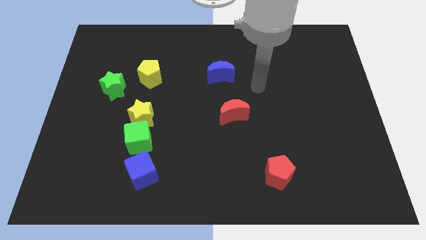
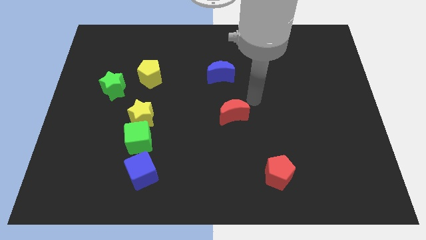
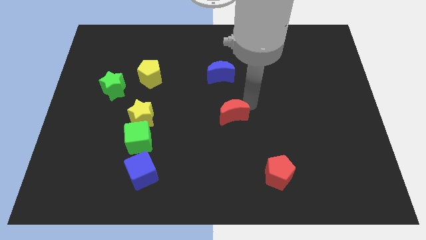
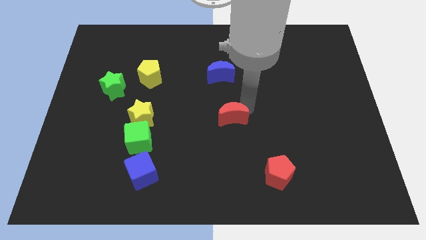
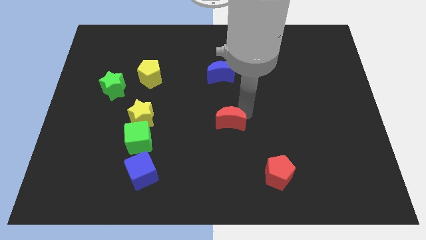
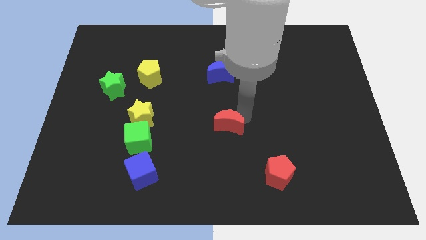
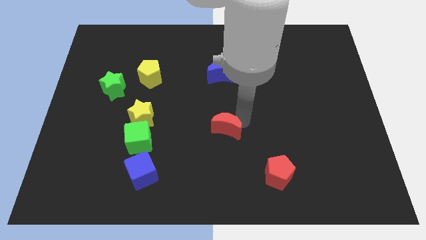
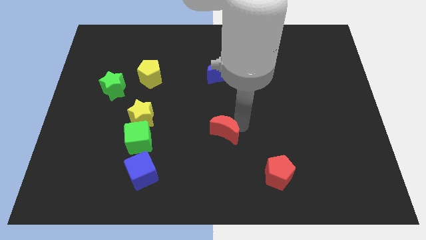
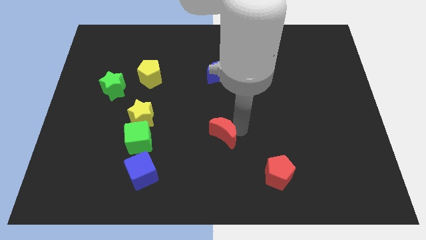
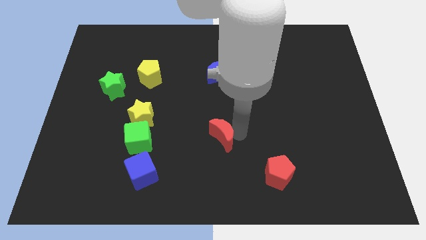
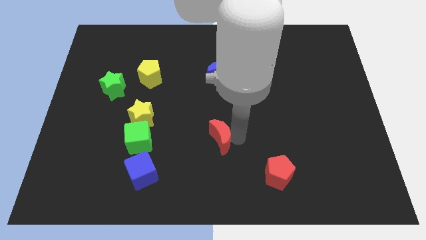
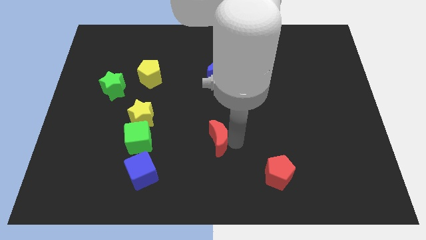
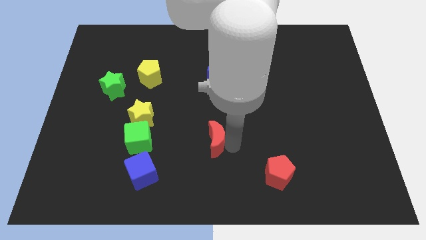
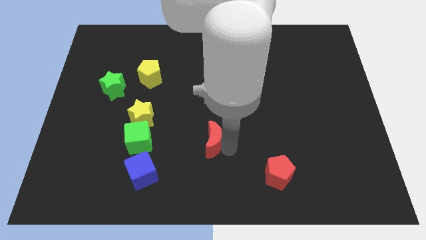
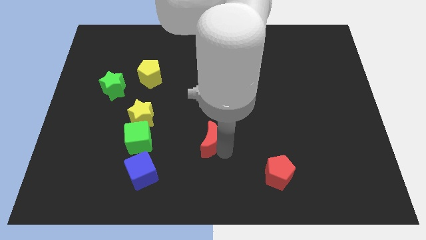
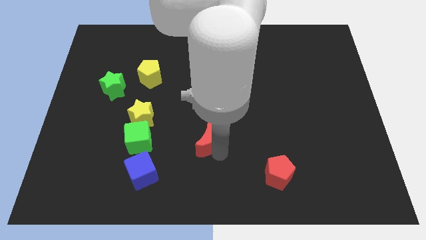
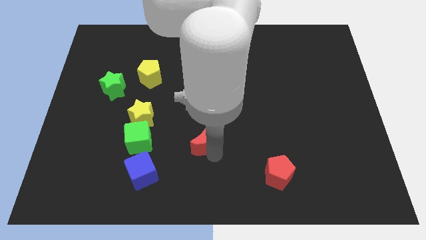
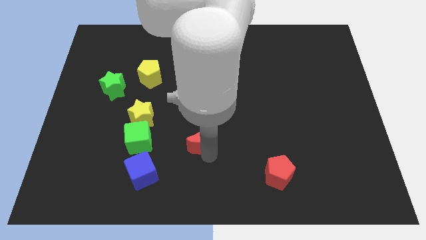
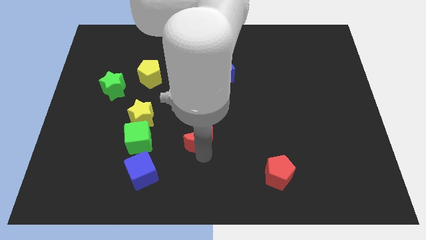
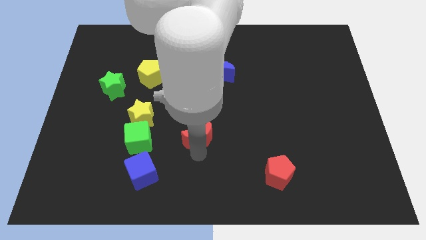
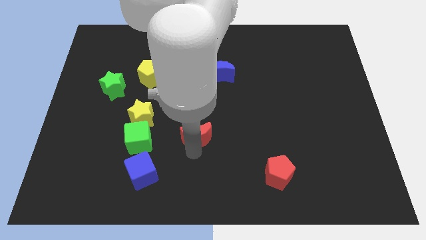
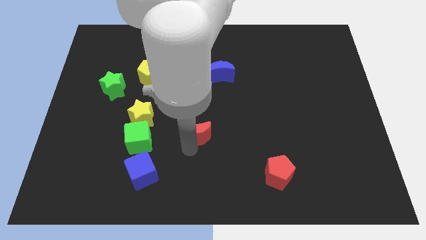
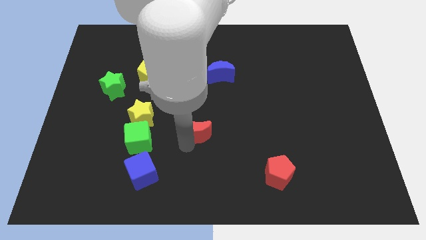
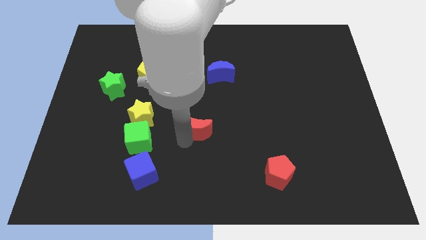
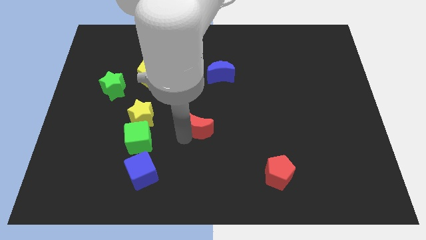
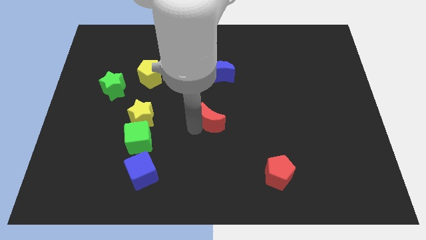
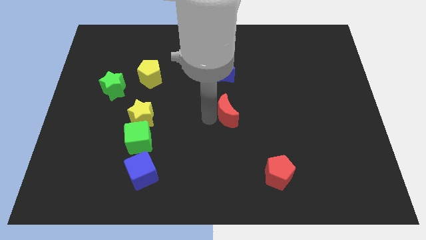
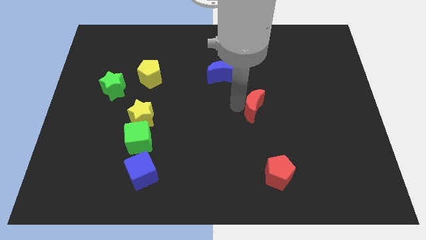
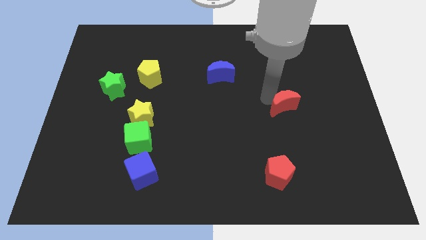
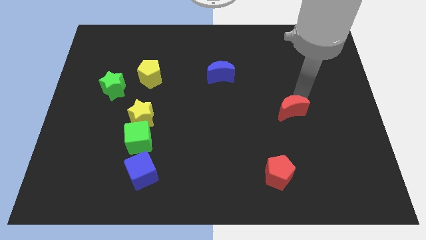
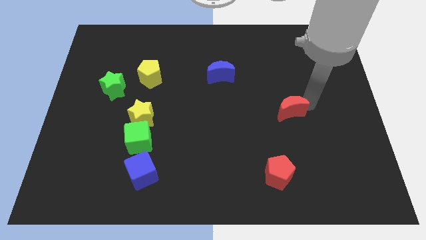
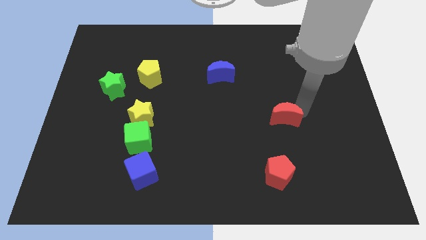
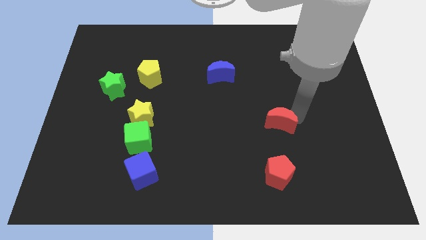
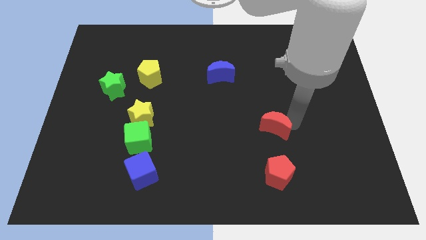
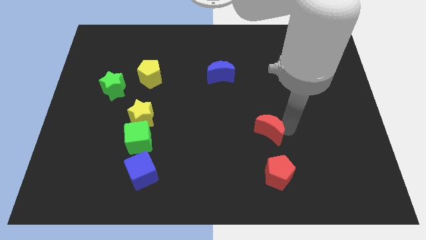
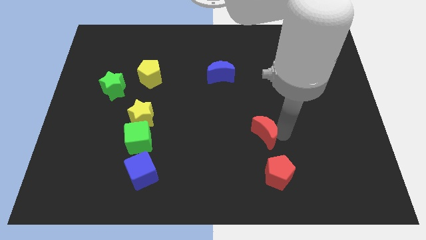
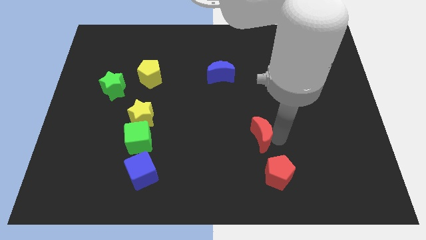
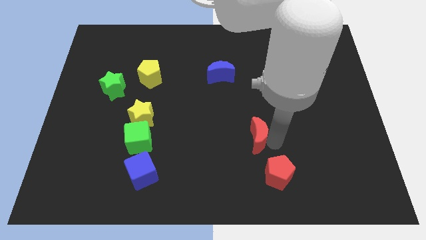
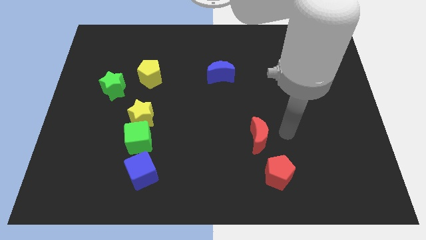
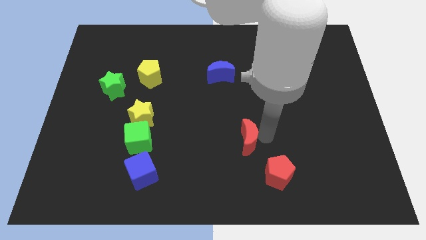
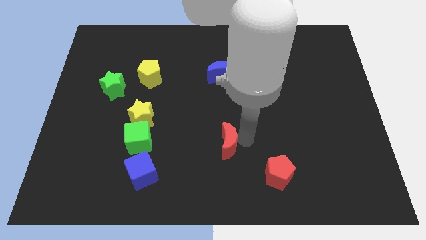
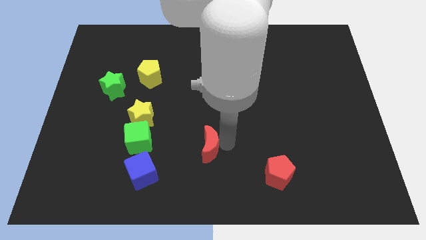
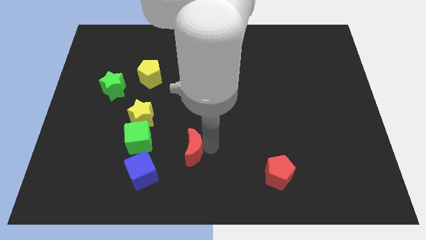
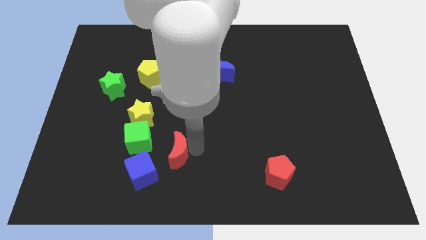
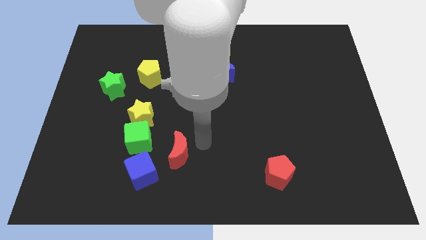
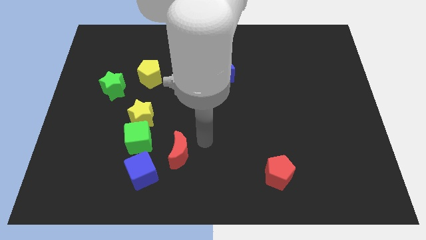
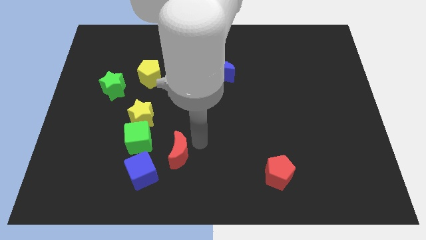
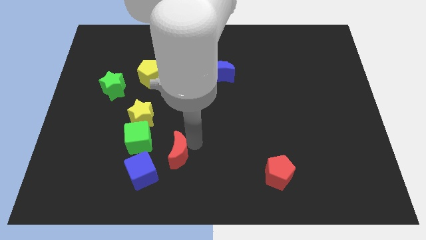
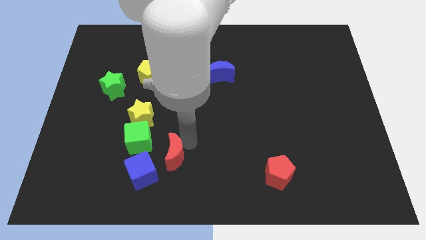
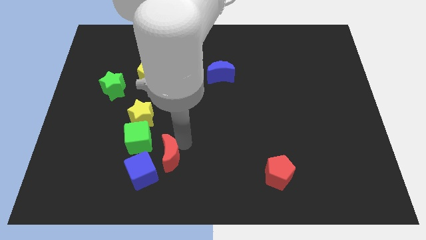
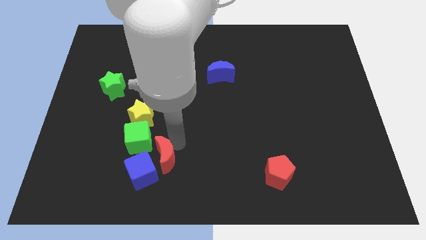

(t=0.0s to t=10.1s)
put the red moon next to the blue cube

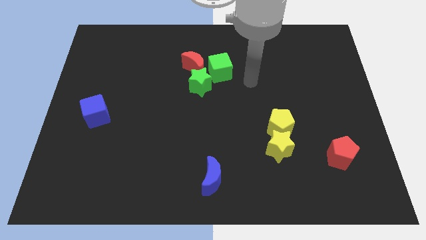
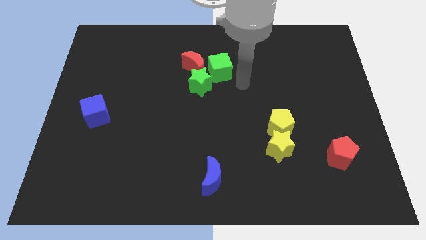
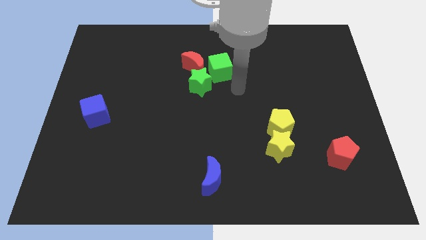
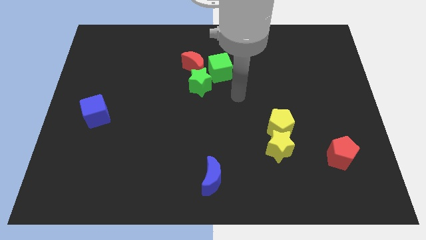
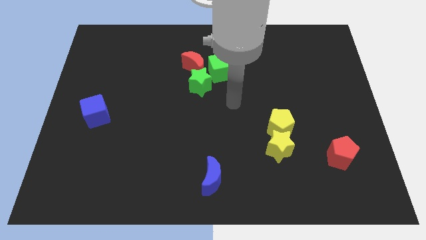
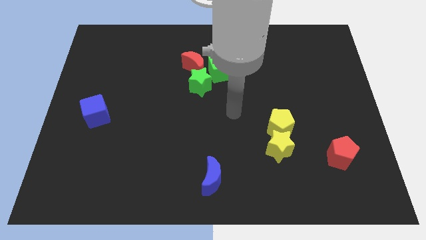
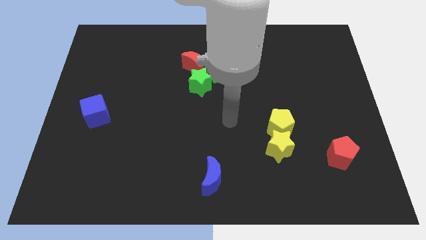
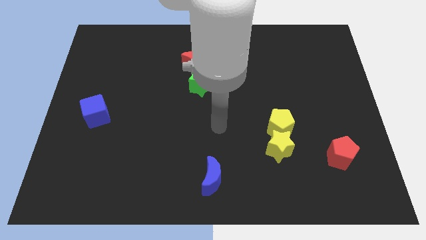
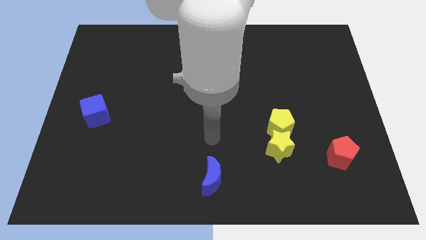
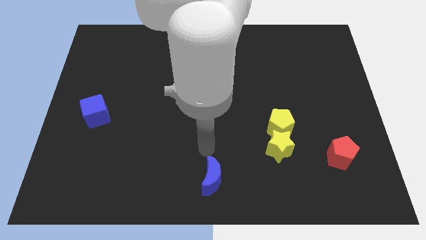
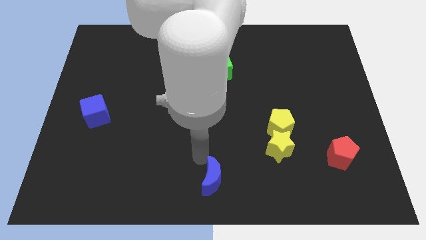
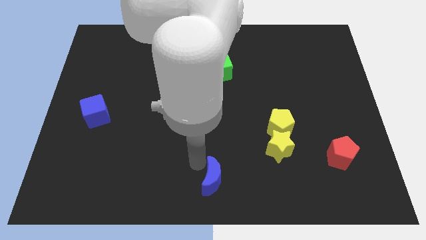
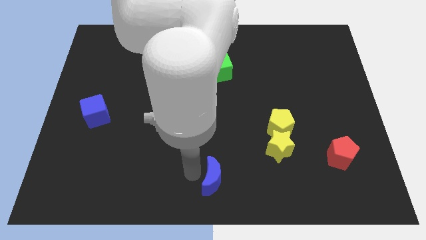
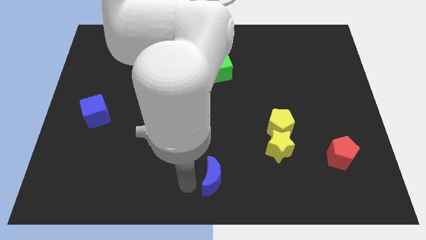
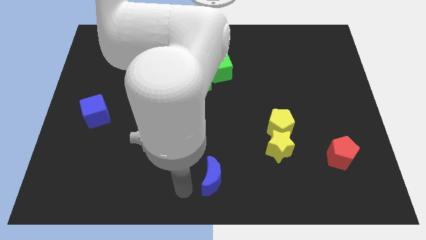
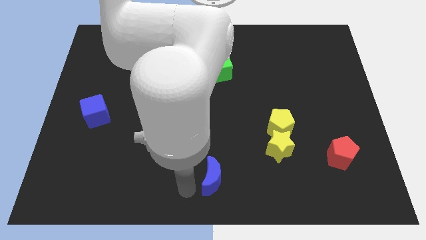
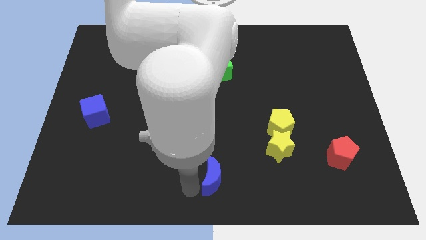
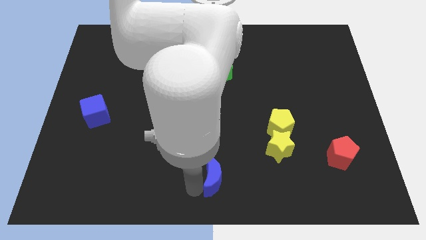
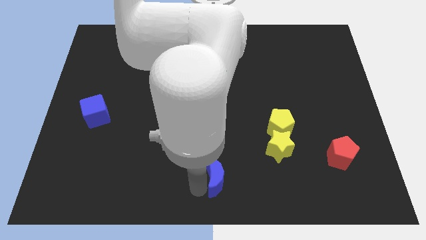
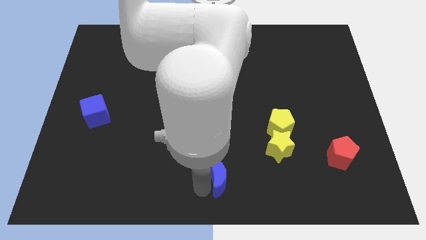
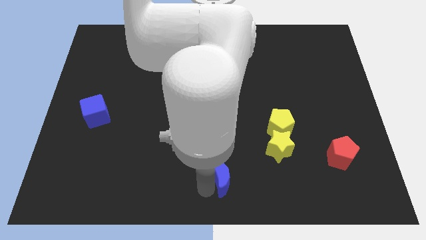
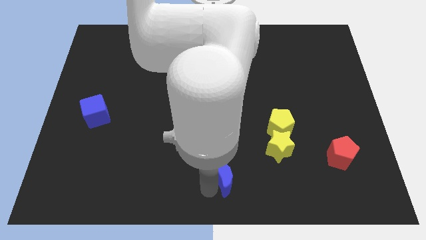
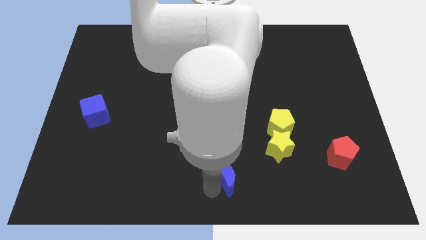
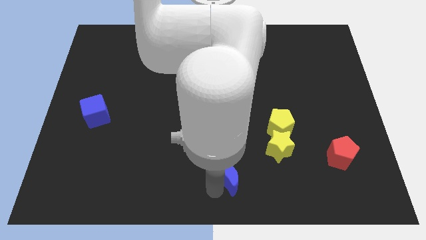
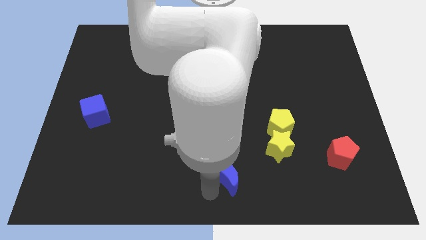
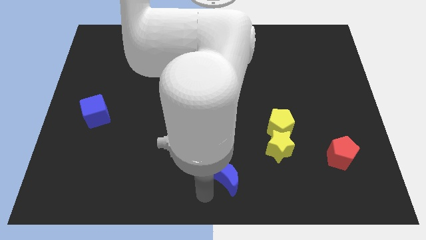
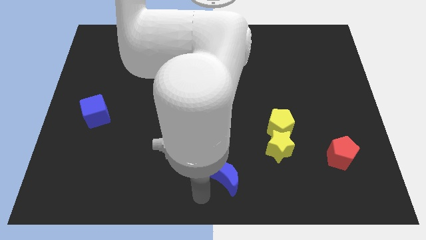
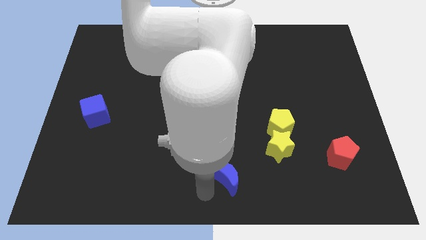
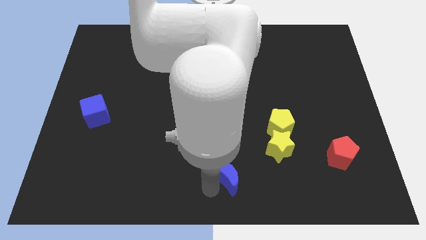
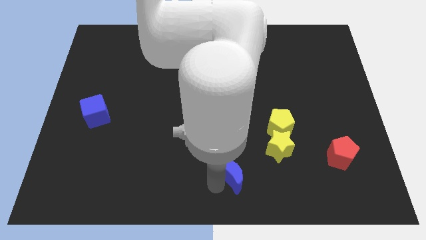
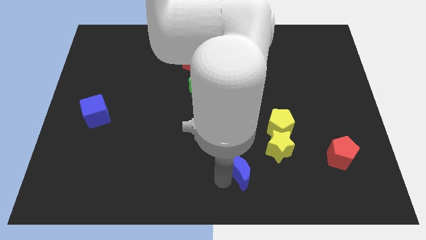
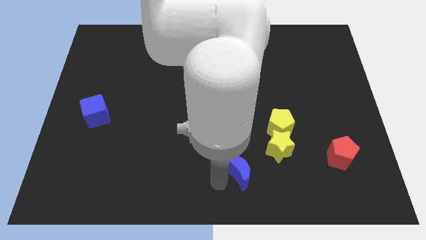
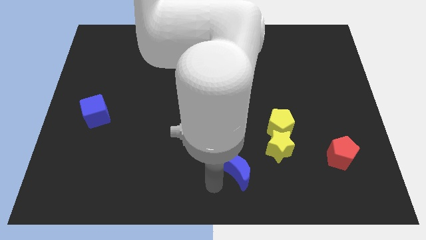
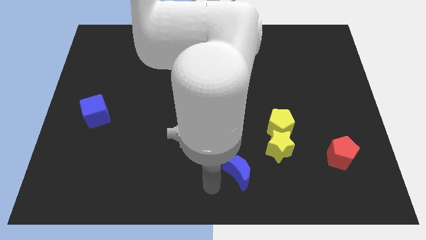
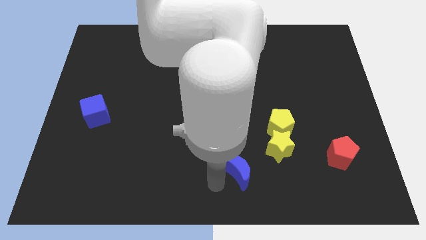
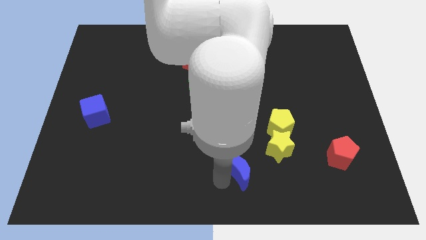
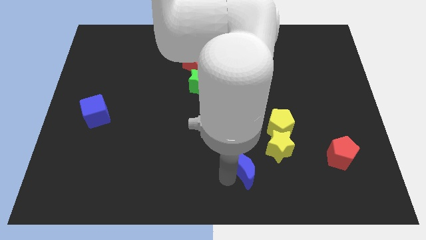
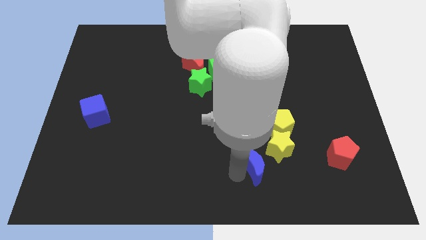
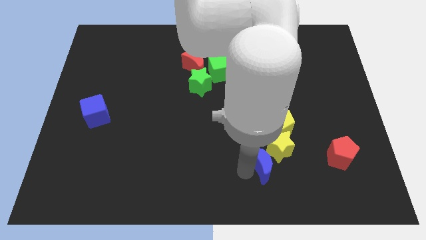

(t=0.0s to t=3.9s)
push the blue moon towards the yellow star
